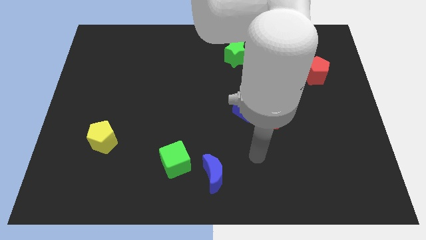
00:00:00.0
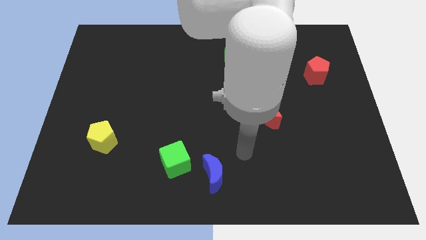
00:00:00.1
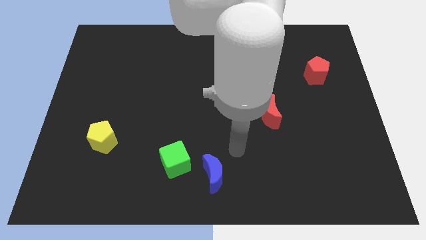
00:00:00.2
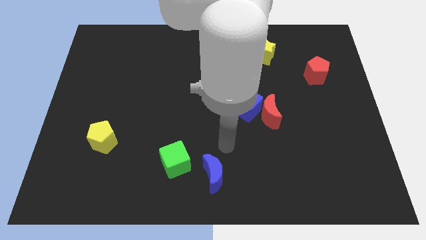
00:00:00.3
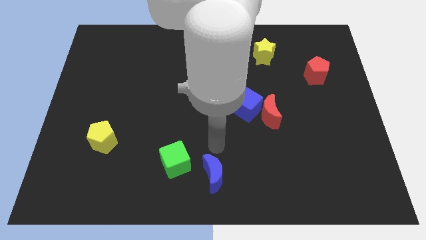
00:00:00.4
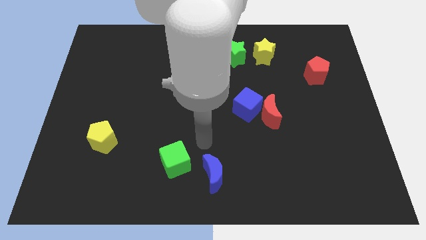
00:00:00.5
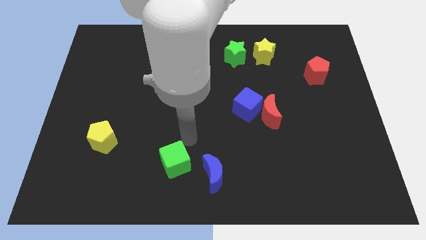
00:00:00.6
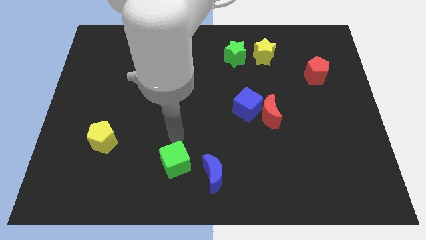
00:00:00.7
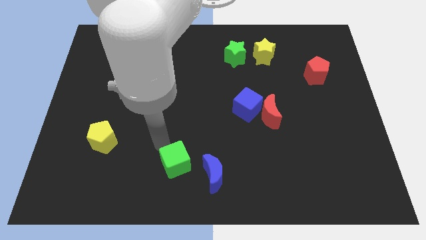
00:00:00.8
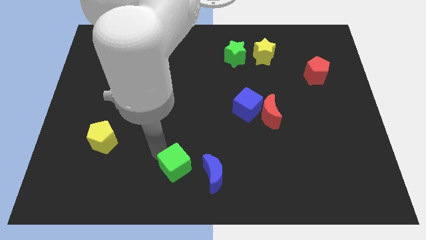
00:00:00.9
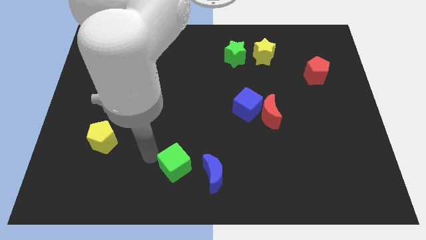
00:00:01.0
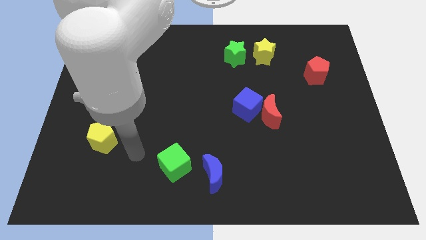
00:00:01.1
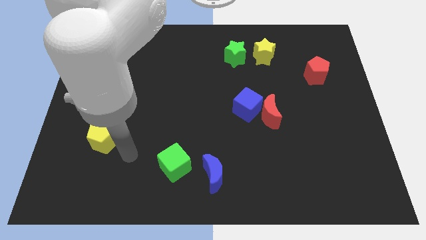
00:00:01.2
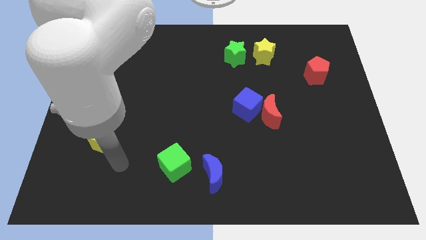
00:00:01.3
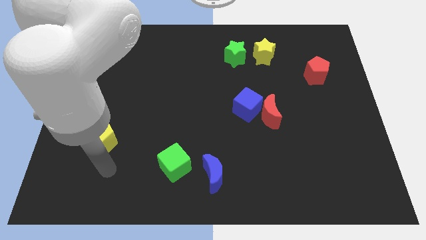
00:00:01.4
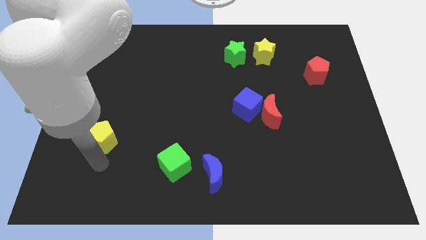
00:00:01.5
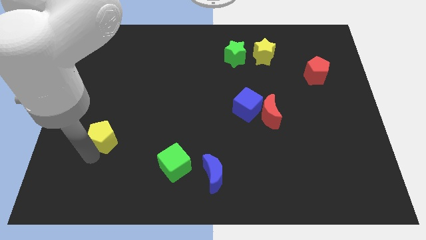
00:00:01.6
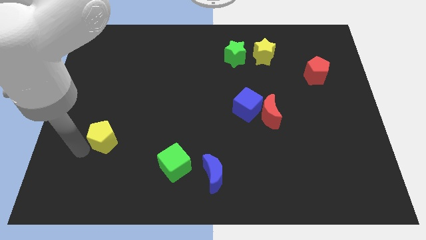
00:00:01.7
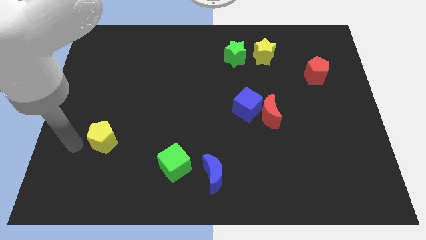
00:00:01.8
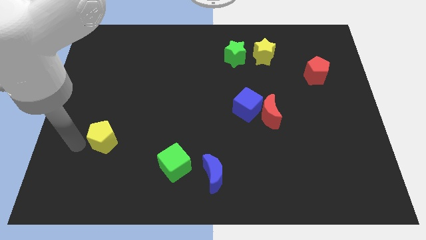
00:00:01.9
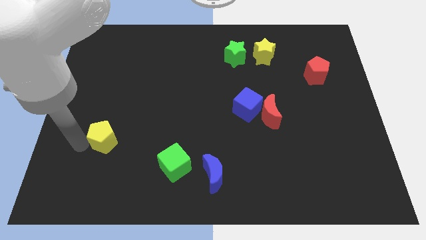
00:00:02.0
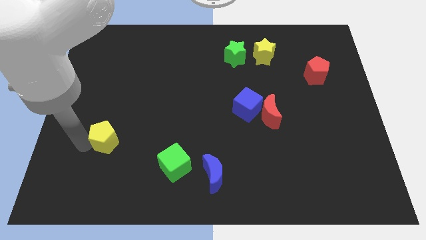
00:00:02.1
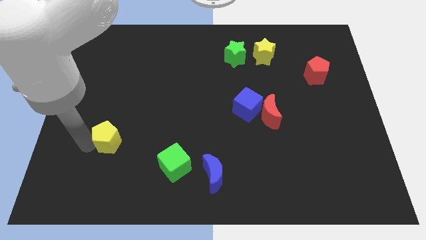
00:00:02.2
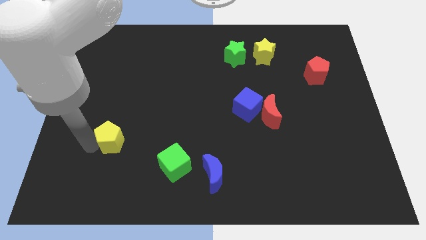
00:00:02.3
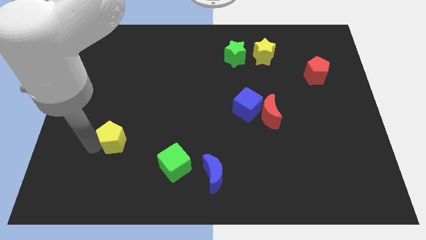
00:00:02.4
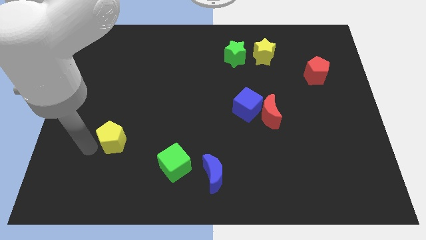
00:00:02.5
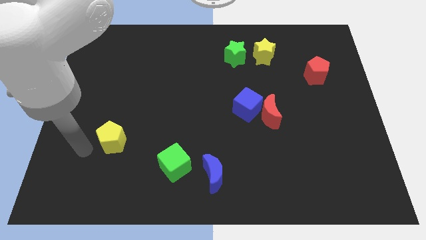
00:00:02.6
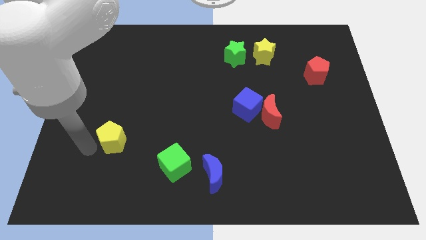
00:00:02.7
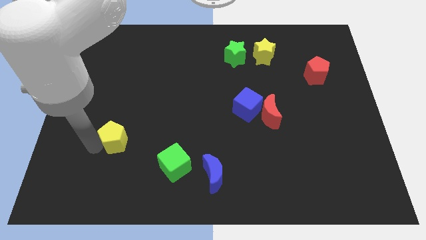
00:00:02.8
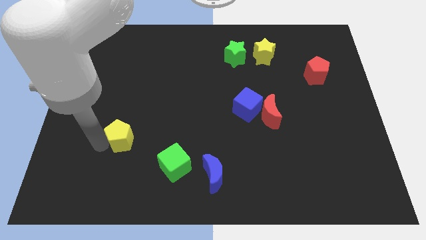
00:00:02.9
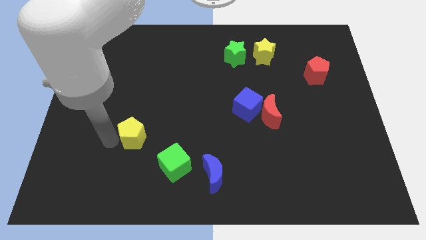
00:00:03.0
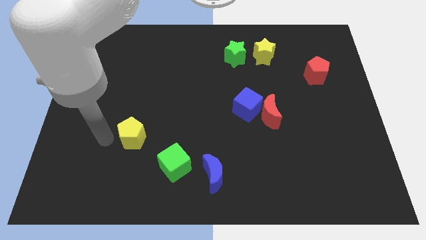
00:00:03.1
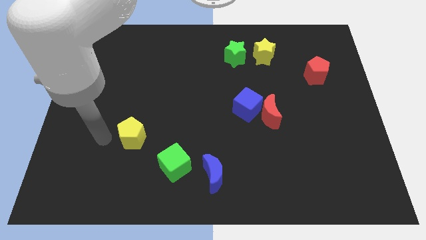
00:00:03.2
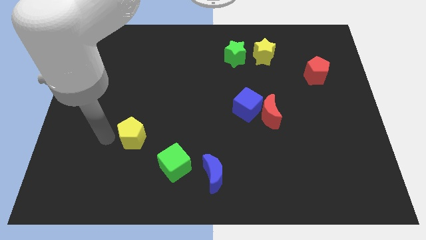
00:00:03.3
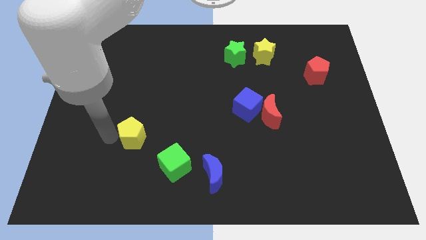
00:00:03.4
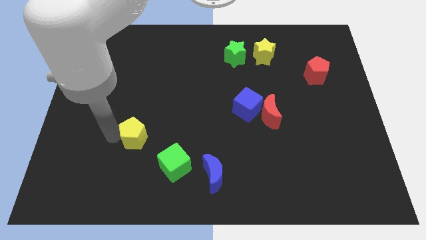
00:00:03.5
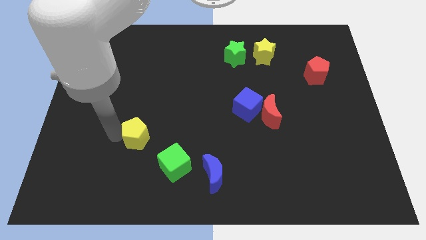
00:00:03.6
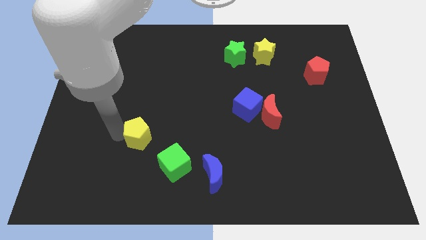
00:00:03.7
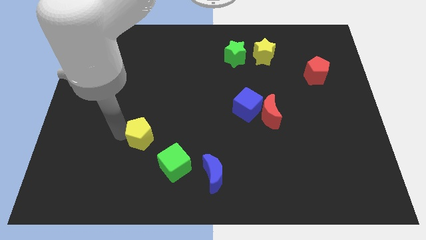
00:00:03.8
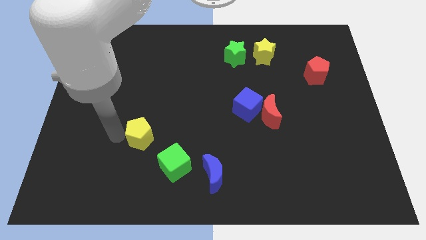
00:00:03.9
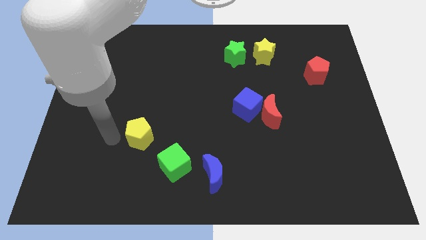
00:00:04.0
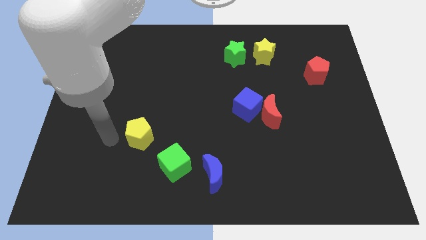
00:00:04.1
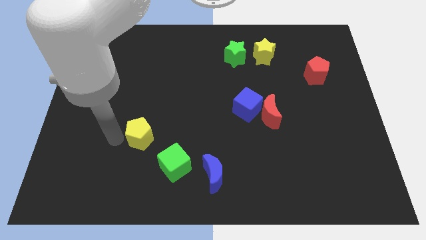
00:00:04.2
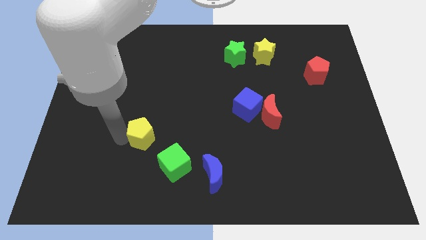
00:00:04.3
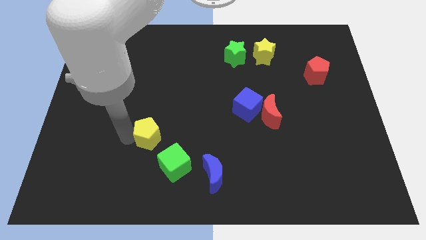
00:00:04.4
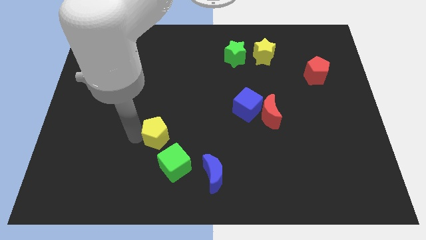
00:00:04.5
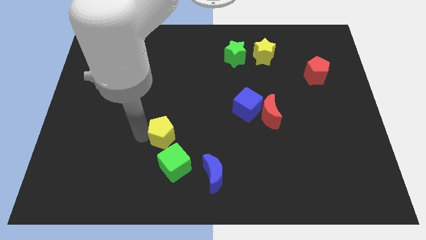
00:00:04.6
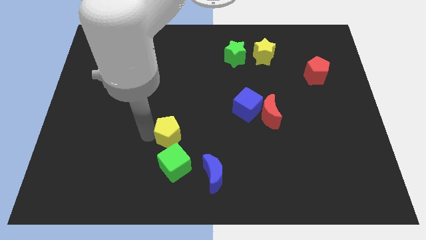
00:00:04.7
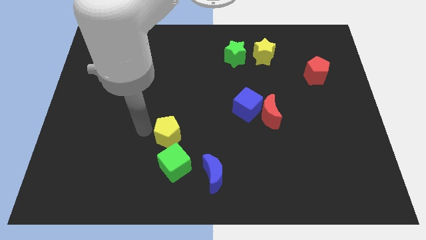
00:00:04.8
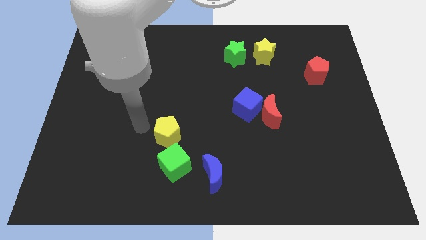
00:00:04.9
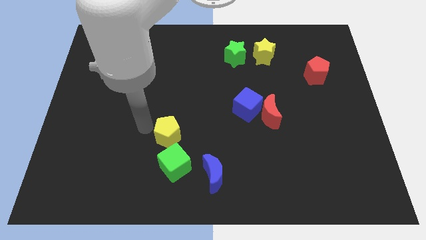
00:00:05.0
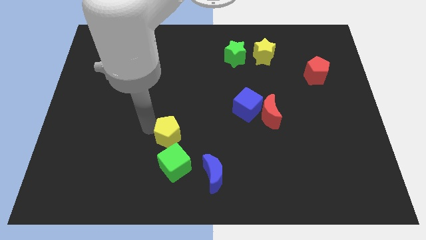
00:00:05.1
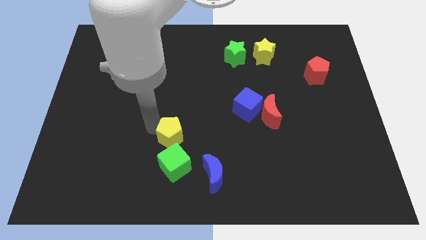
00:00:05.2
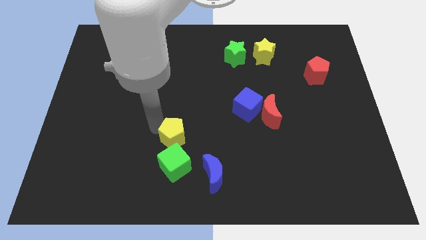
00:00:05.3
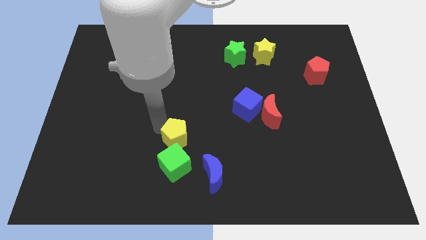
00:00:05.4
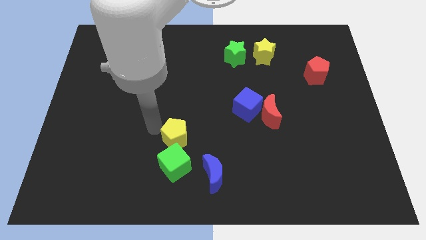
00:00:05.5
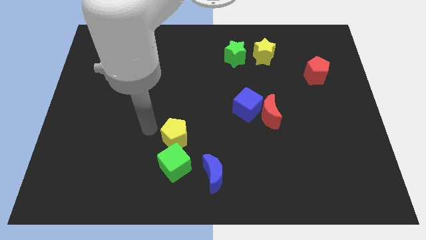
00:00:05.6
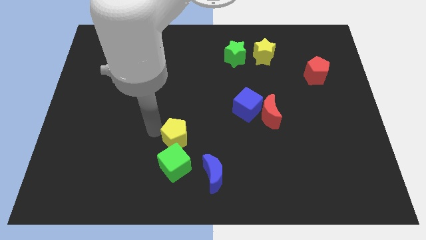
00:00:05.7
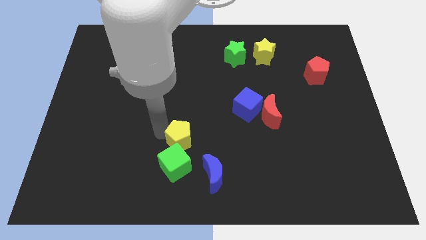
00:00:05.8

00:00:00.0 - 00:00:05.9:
put the yellow pentagon diagonally up and to the right of the green cube

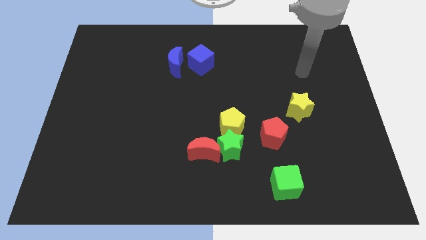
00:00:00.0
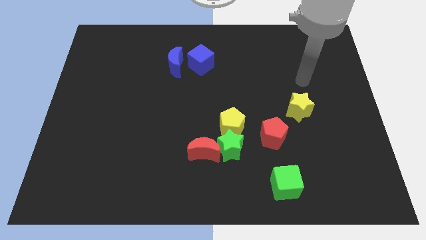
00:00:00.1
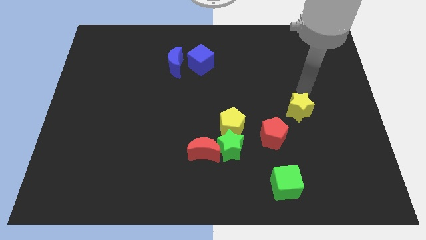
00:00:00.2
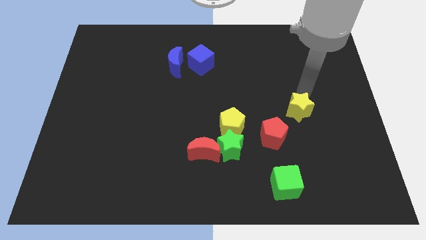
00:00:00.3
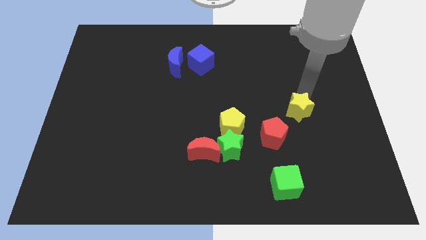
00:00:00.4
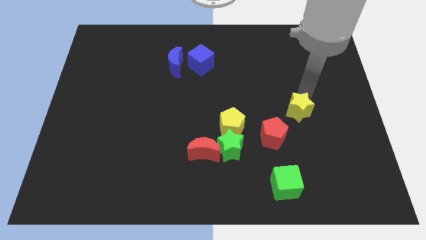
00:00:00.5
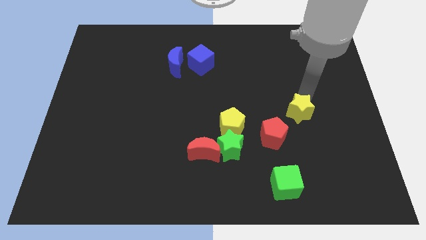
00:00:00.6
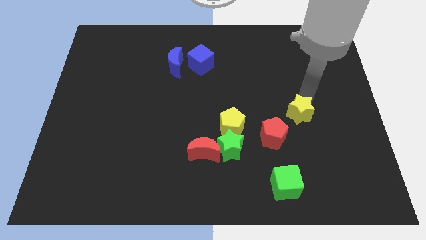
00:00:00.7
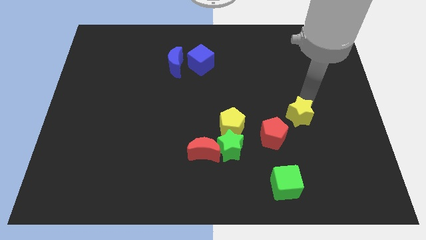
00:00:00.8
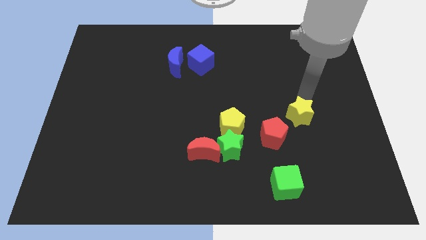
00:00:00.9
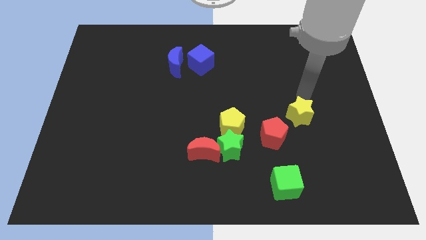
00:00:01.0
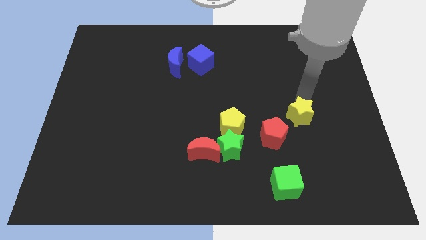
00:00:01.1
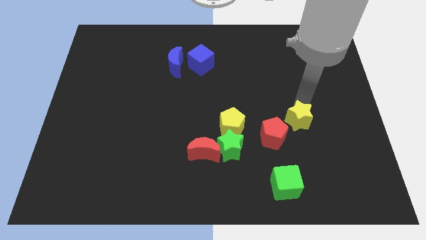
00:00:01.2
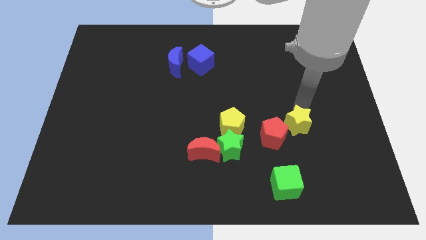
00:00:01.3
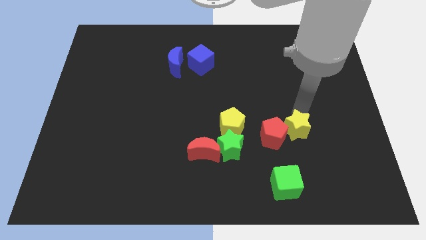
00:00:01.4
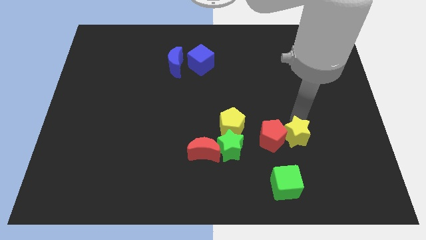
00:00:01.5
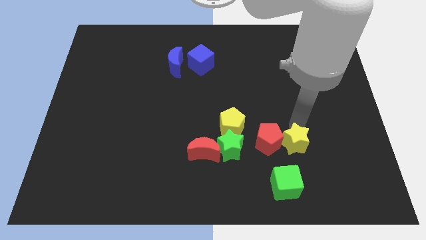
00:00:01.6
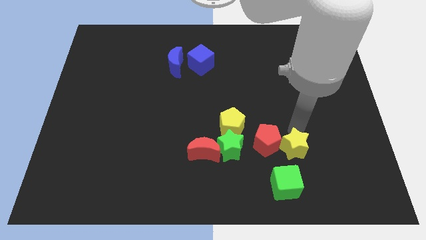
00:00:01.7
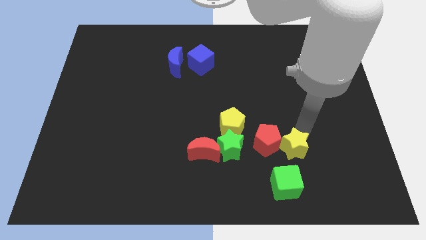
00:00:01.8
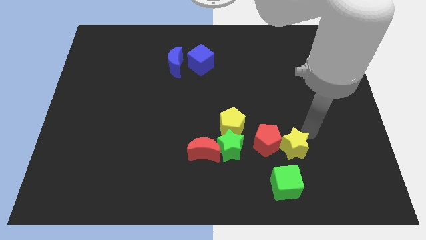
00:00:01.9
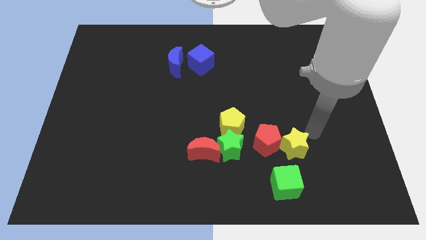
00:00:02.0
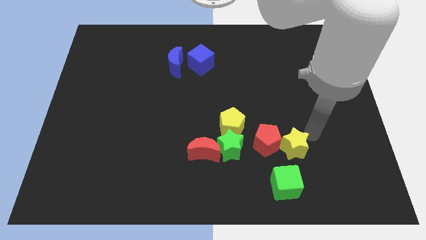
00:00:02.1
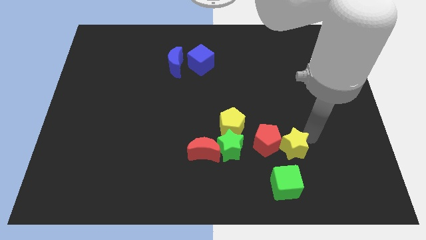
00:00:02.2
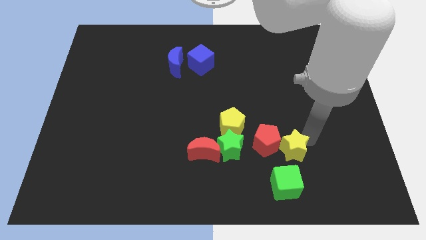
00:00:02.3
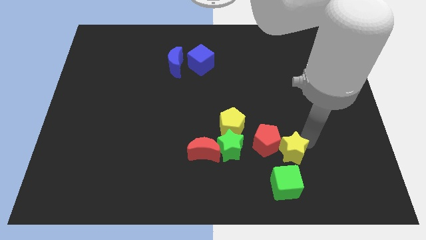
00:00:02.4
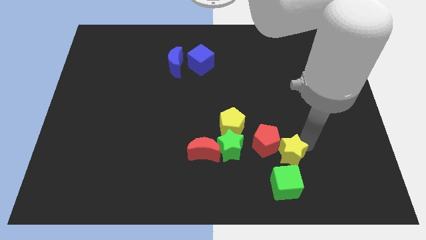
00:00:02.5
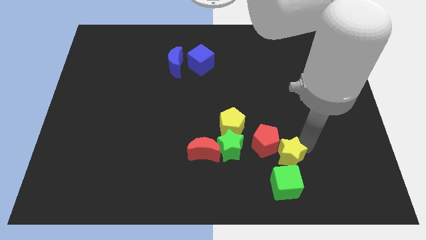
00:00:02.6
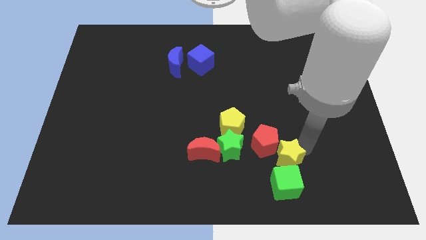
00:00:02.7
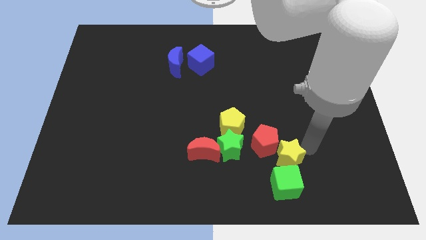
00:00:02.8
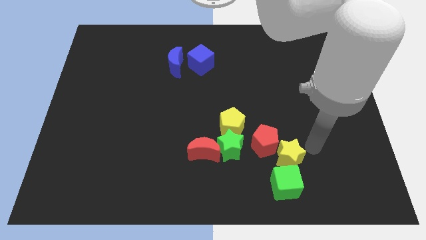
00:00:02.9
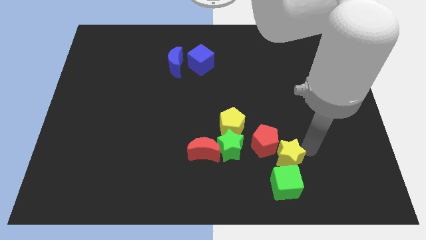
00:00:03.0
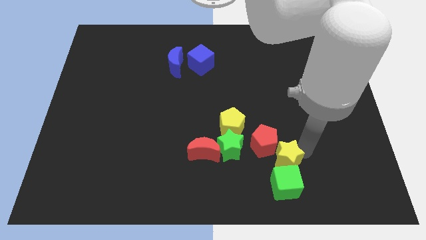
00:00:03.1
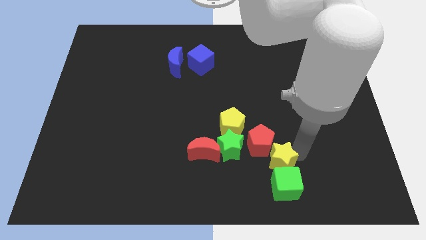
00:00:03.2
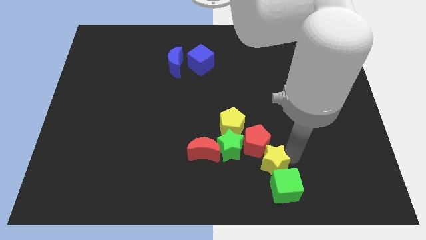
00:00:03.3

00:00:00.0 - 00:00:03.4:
put the yellow star to the bottom right of the green star
